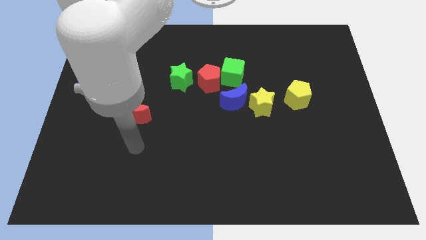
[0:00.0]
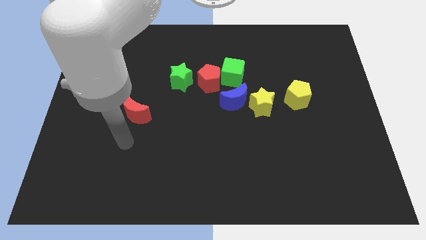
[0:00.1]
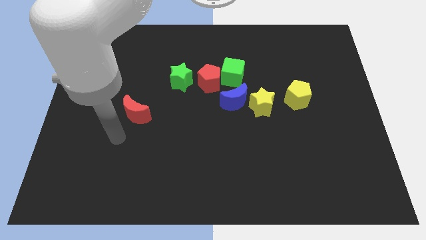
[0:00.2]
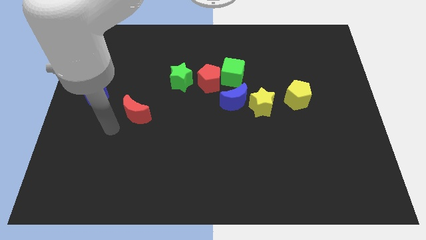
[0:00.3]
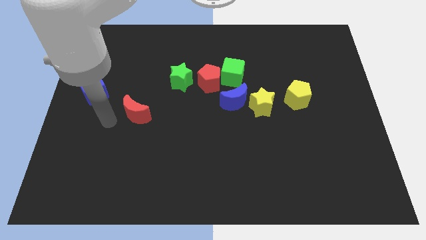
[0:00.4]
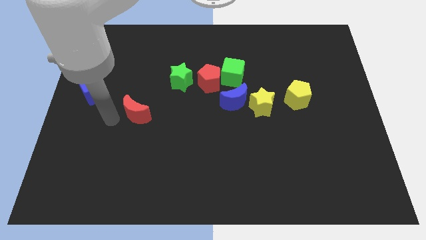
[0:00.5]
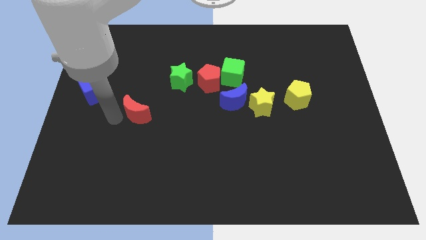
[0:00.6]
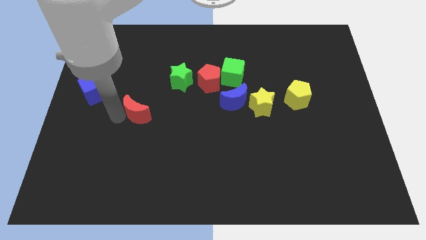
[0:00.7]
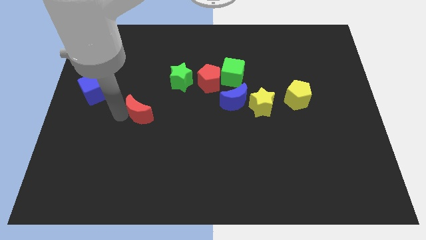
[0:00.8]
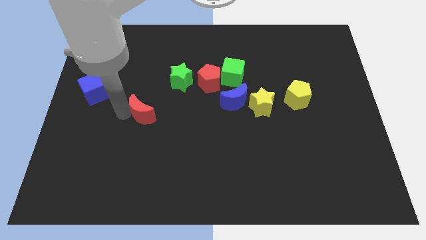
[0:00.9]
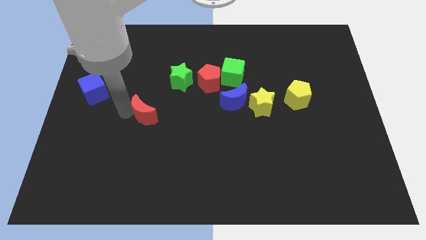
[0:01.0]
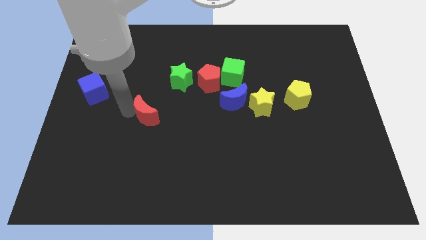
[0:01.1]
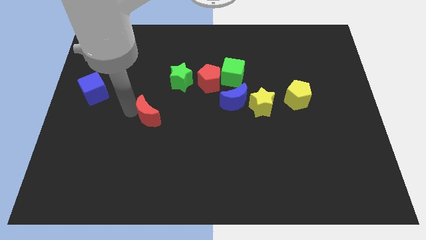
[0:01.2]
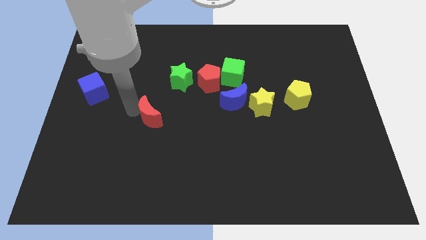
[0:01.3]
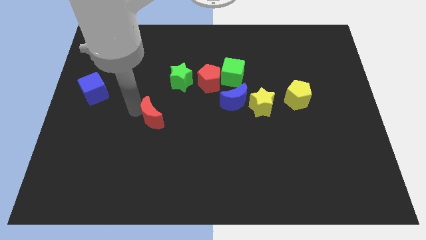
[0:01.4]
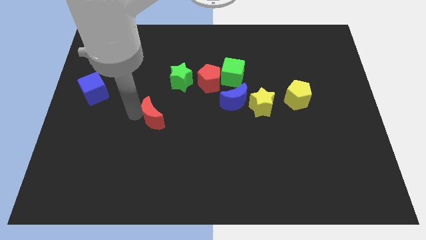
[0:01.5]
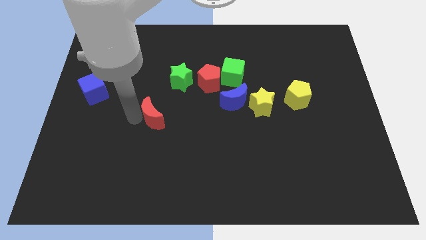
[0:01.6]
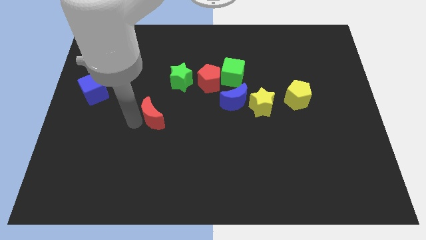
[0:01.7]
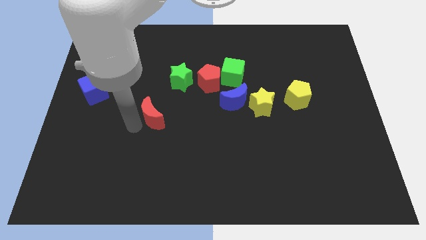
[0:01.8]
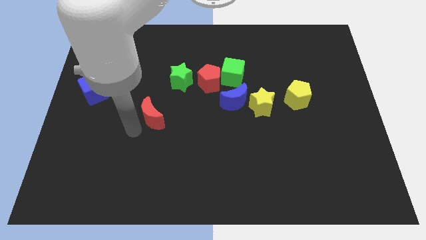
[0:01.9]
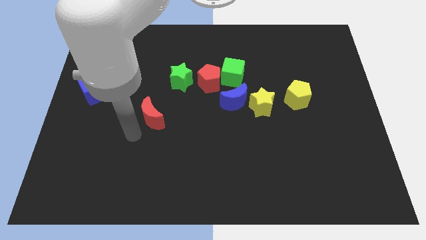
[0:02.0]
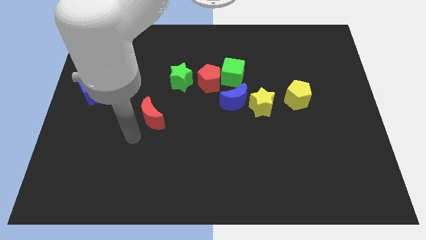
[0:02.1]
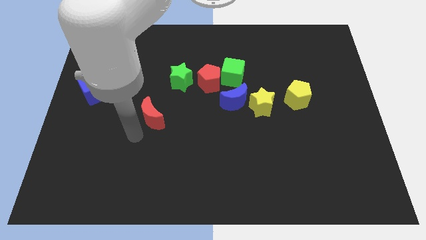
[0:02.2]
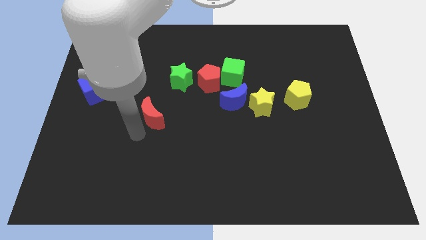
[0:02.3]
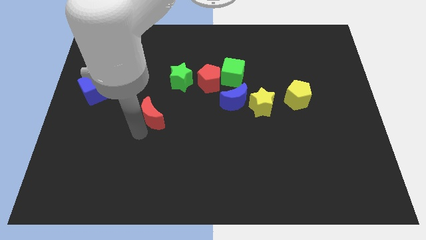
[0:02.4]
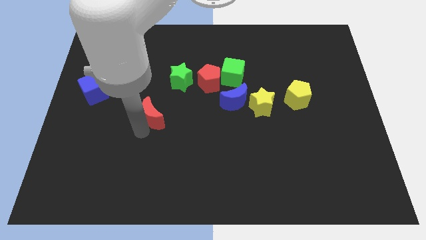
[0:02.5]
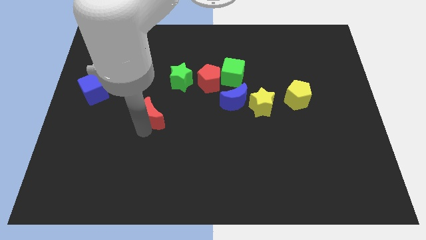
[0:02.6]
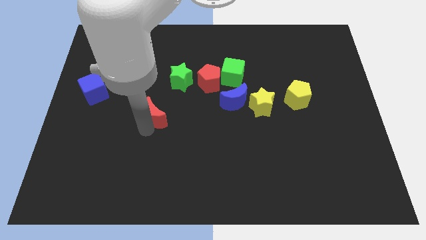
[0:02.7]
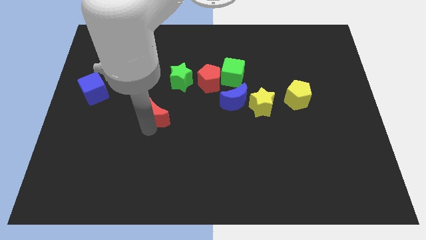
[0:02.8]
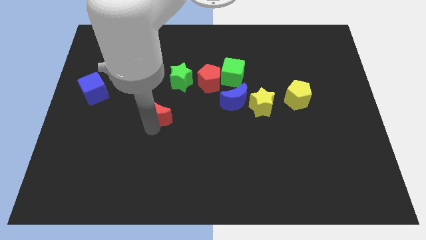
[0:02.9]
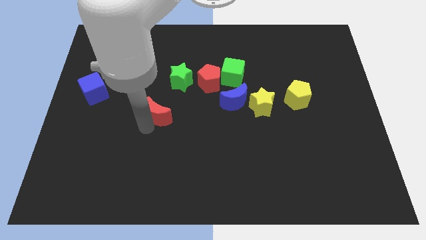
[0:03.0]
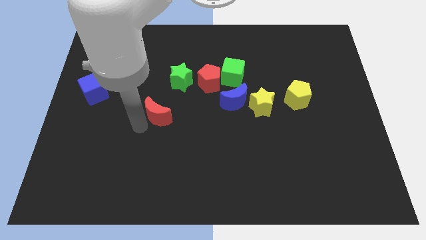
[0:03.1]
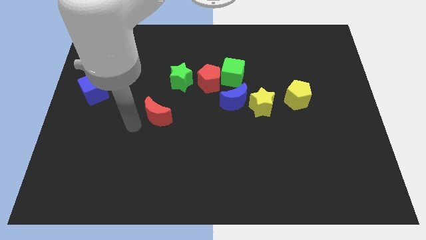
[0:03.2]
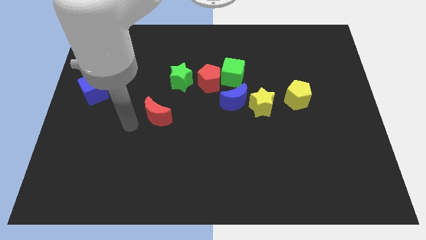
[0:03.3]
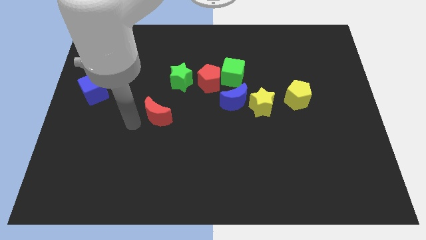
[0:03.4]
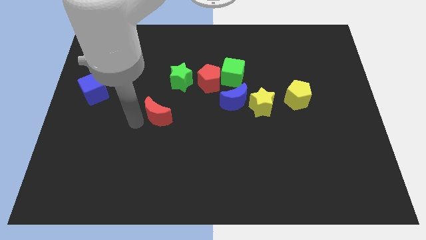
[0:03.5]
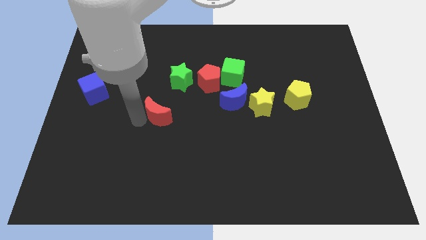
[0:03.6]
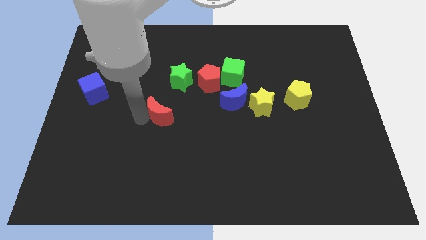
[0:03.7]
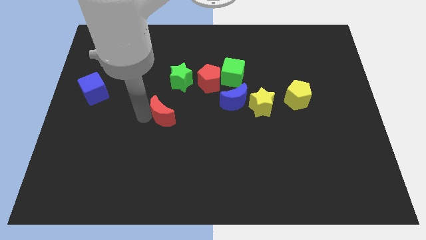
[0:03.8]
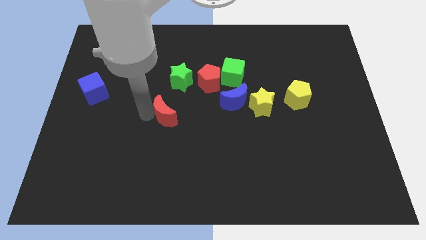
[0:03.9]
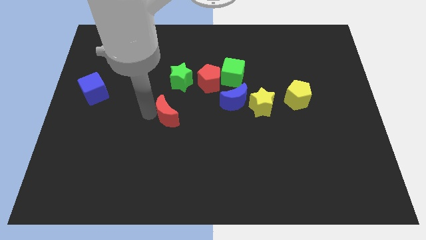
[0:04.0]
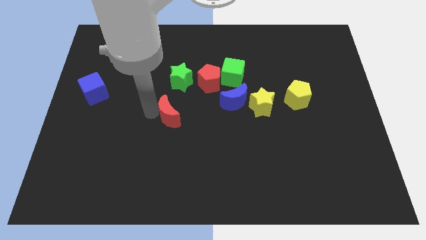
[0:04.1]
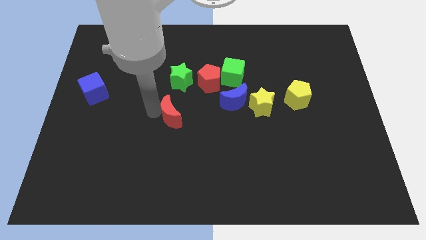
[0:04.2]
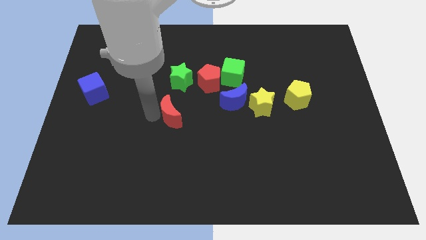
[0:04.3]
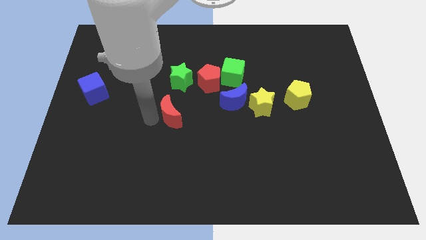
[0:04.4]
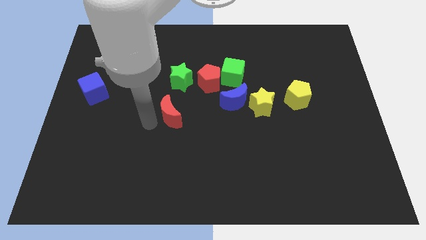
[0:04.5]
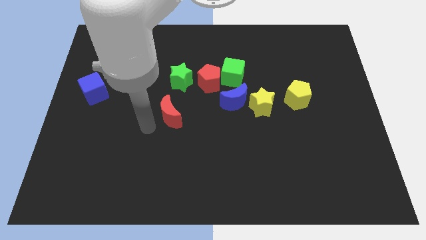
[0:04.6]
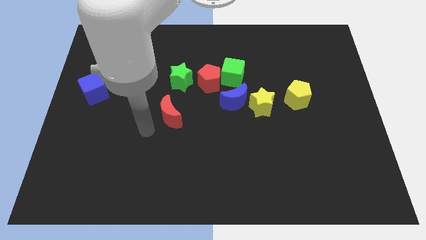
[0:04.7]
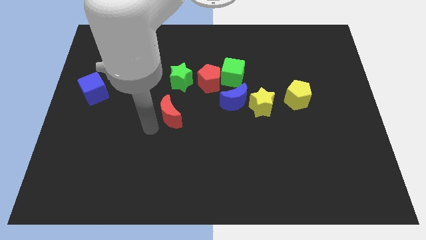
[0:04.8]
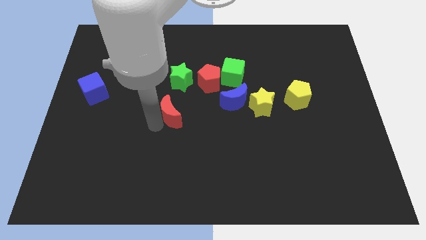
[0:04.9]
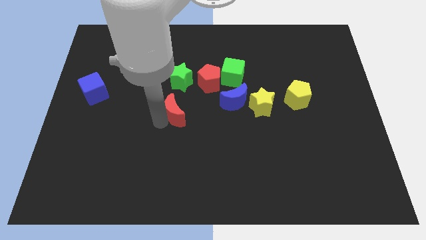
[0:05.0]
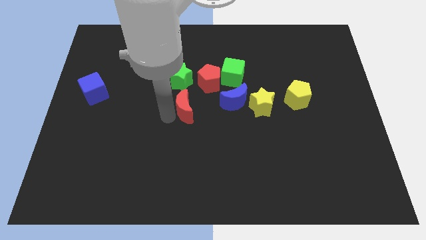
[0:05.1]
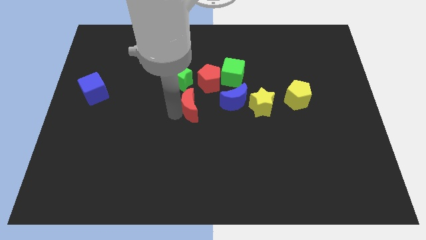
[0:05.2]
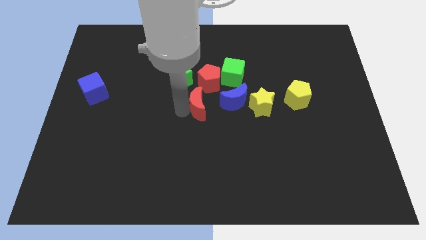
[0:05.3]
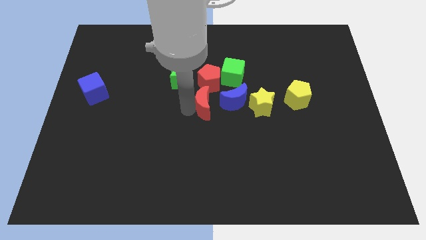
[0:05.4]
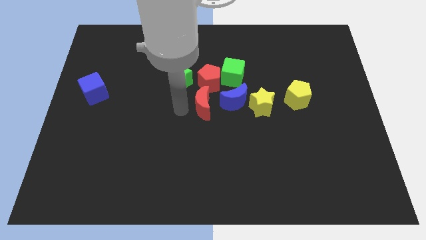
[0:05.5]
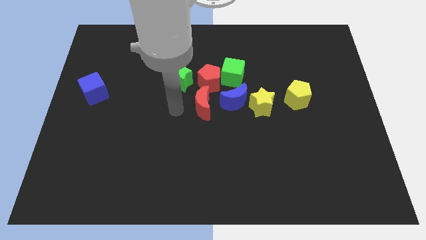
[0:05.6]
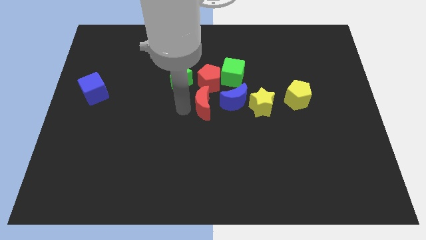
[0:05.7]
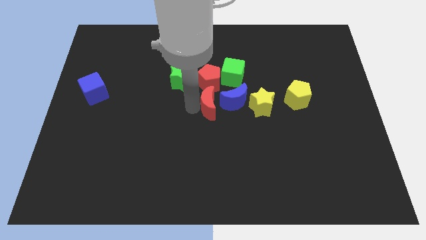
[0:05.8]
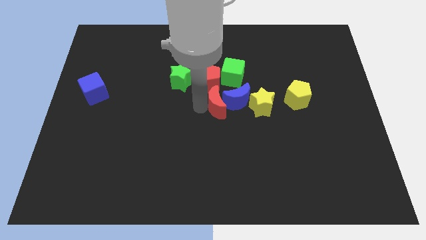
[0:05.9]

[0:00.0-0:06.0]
slide the red moon close to the blue moon

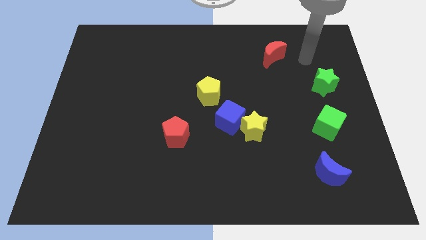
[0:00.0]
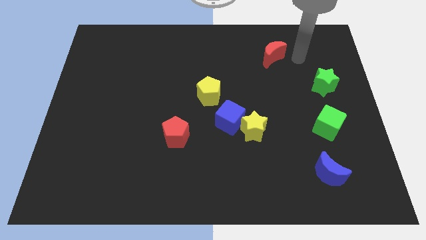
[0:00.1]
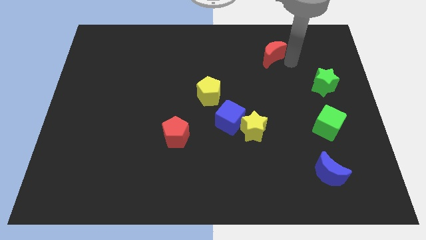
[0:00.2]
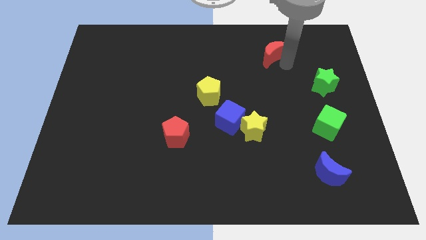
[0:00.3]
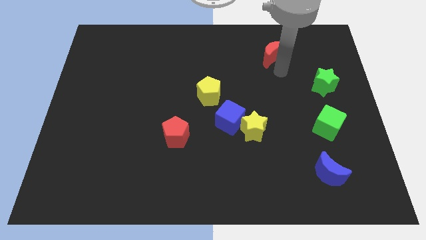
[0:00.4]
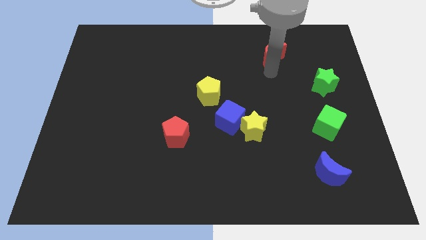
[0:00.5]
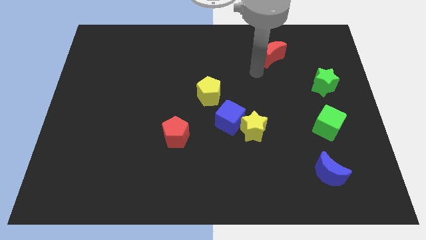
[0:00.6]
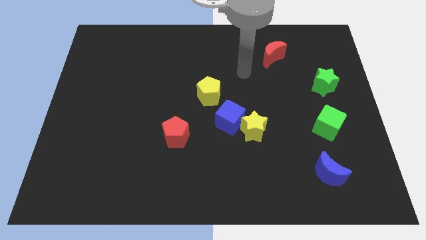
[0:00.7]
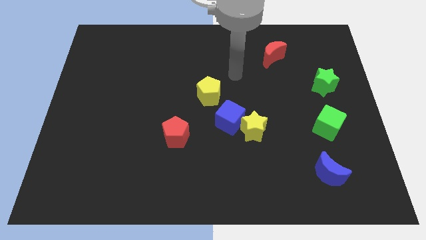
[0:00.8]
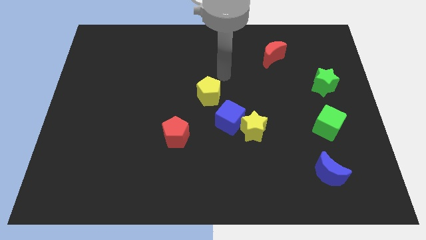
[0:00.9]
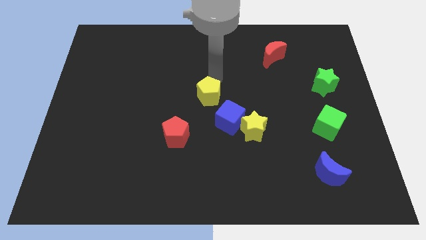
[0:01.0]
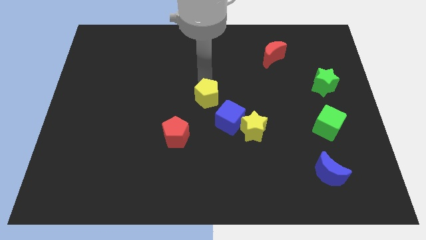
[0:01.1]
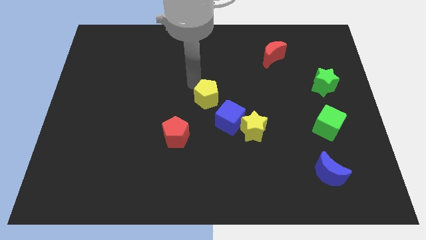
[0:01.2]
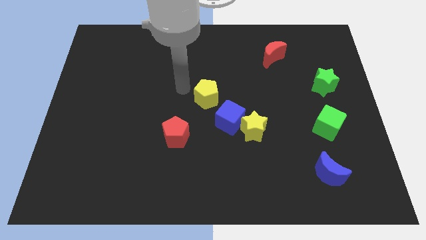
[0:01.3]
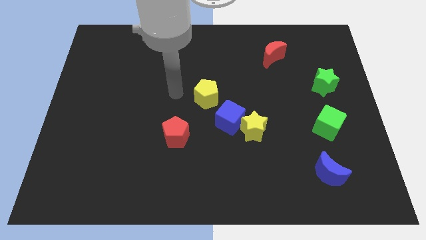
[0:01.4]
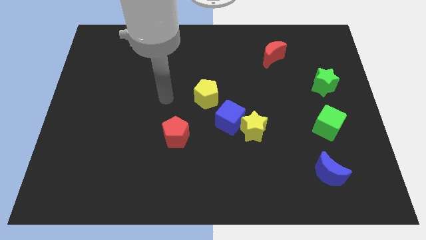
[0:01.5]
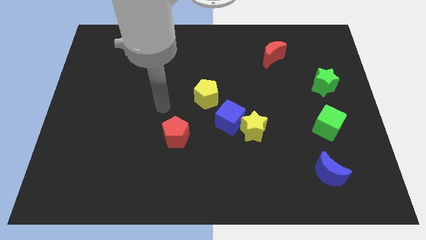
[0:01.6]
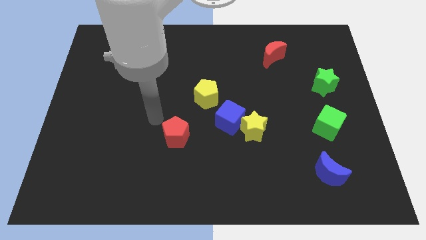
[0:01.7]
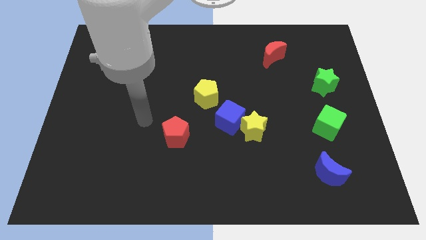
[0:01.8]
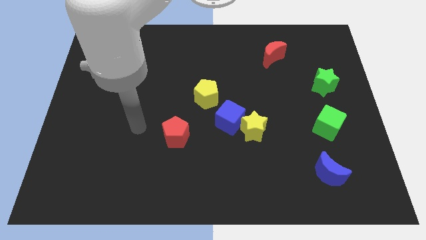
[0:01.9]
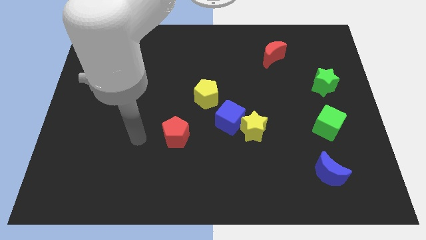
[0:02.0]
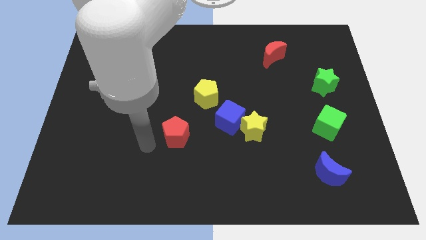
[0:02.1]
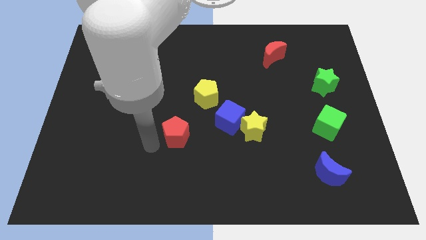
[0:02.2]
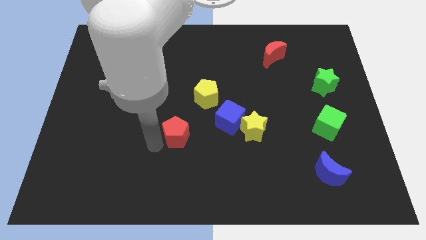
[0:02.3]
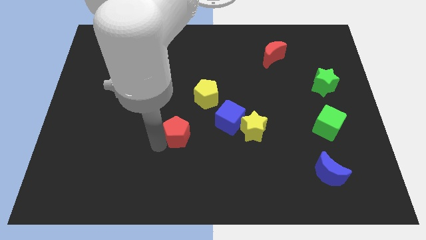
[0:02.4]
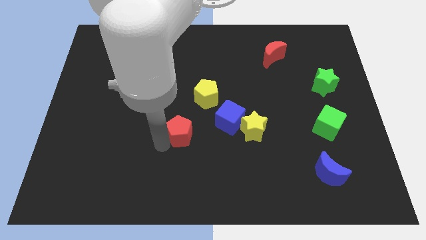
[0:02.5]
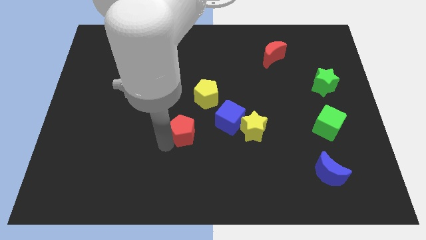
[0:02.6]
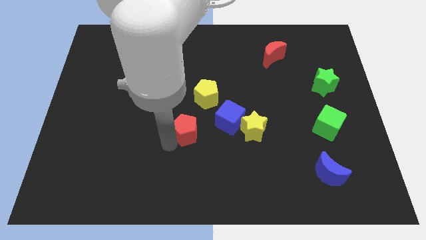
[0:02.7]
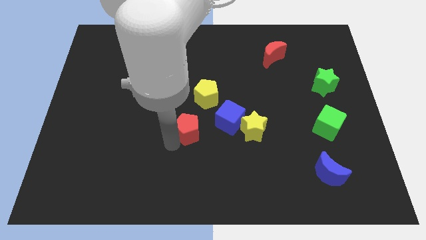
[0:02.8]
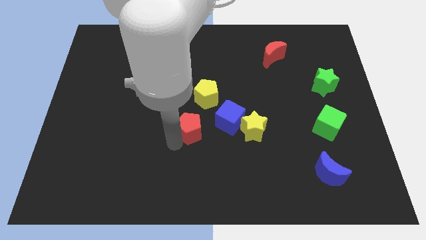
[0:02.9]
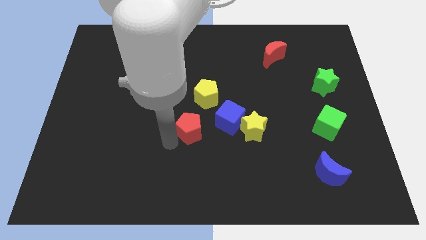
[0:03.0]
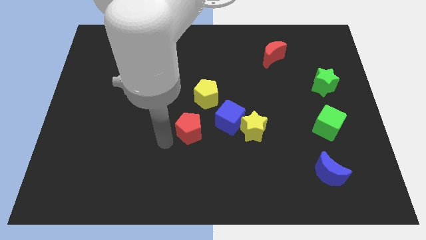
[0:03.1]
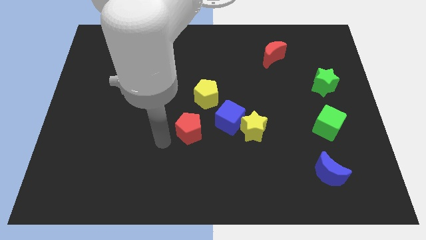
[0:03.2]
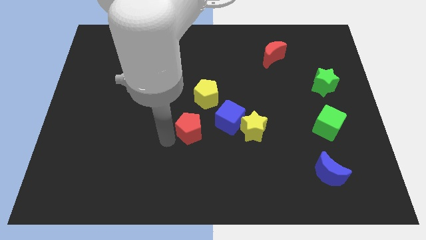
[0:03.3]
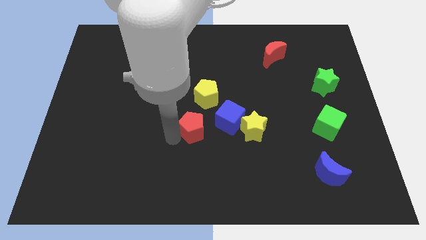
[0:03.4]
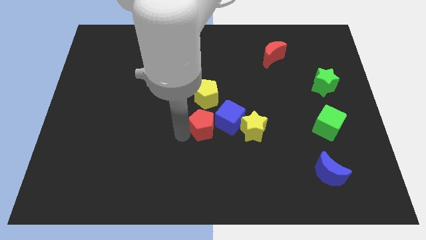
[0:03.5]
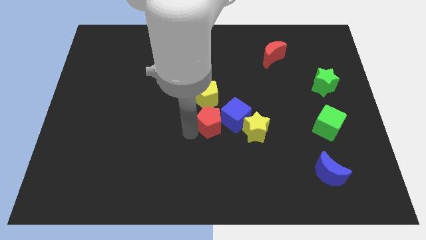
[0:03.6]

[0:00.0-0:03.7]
put the red pentagon towards the blue cube
